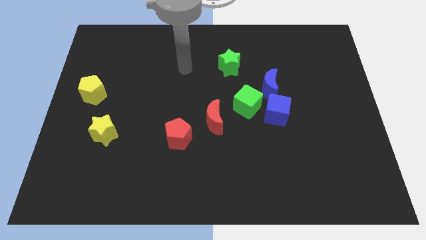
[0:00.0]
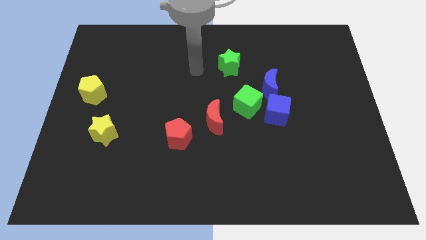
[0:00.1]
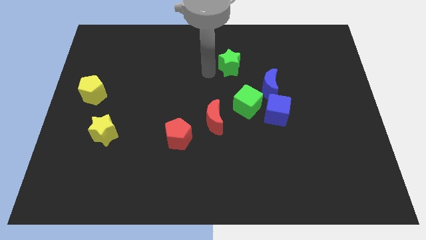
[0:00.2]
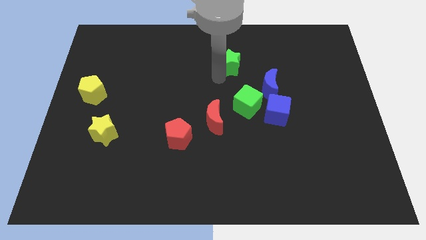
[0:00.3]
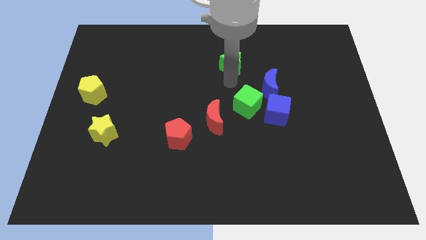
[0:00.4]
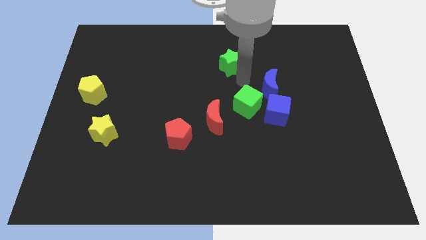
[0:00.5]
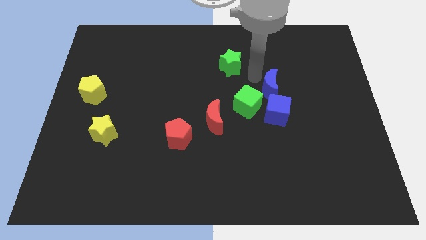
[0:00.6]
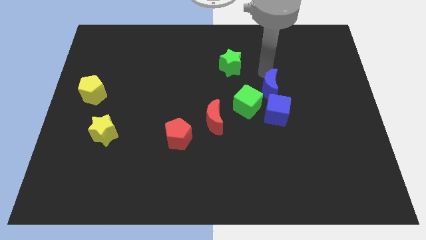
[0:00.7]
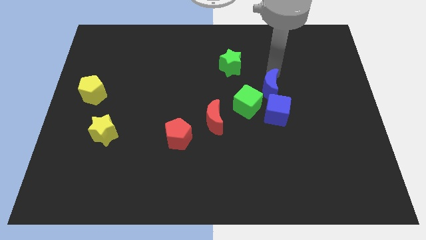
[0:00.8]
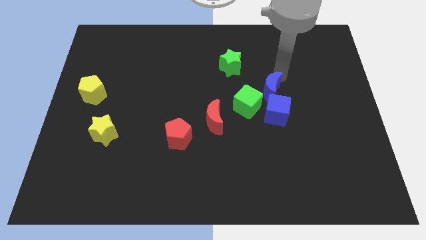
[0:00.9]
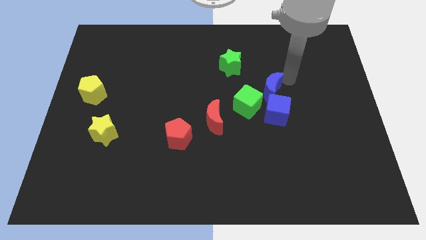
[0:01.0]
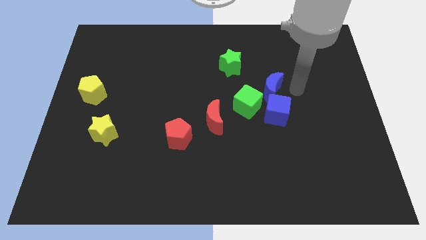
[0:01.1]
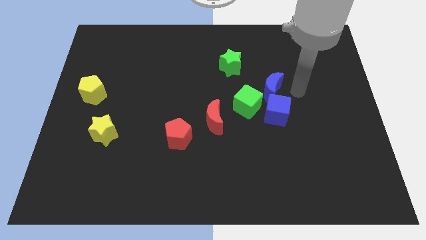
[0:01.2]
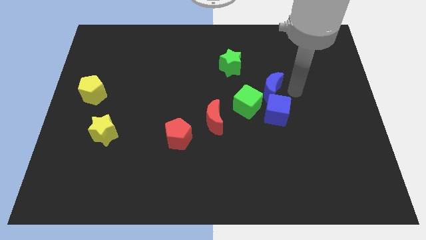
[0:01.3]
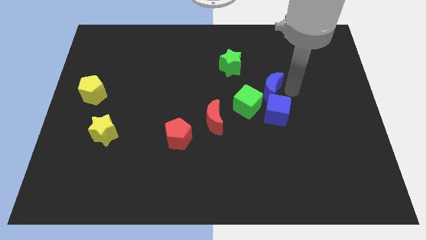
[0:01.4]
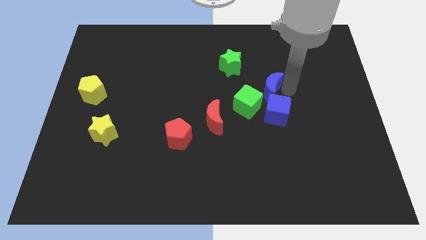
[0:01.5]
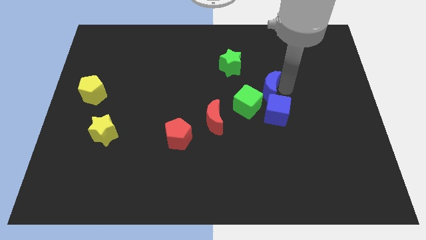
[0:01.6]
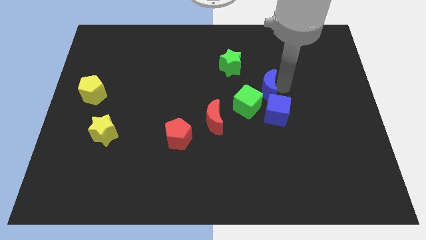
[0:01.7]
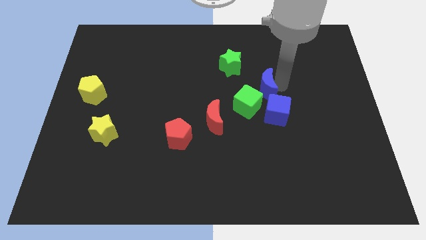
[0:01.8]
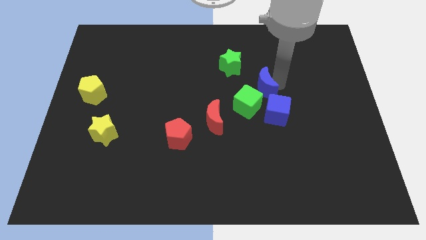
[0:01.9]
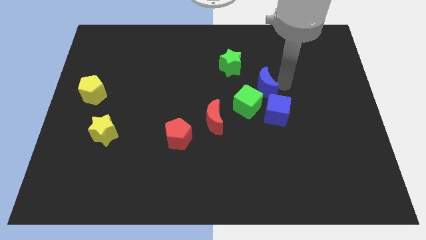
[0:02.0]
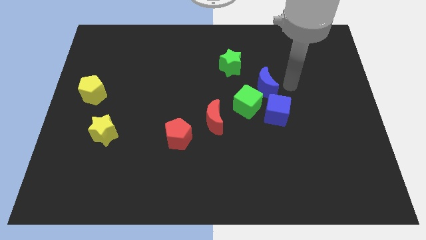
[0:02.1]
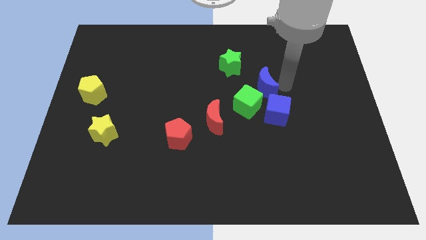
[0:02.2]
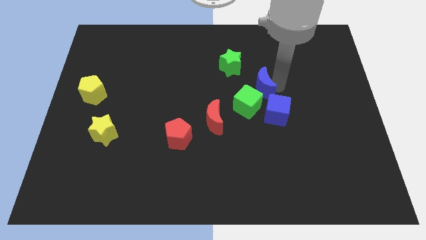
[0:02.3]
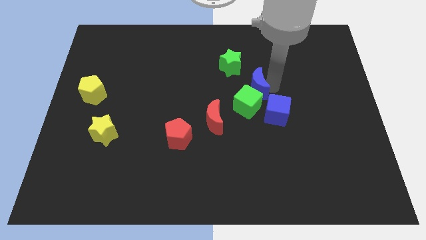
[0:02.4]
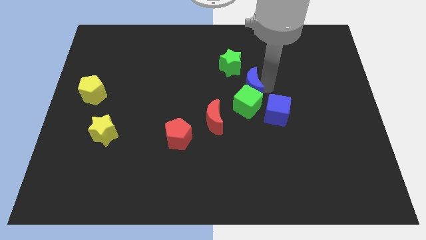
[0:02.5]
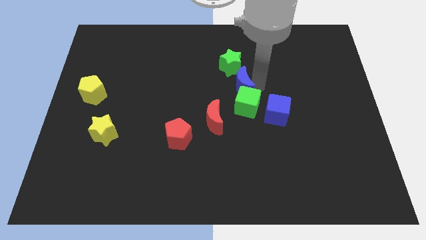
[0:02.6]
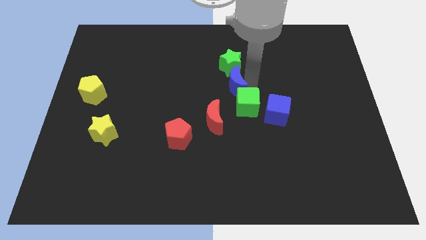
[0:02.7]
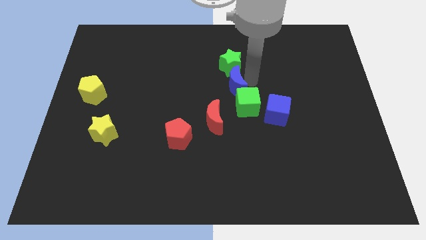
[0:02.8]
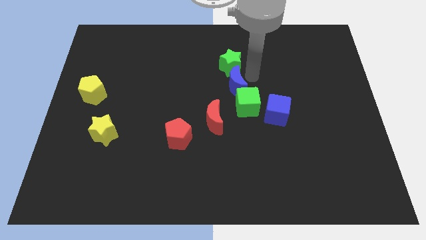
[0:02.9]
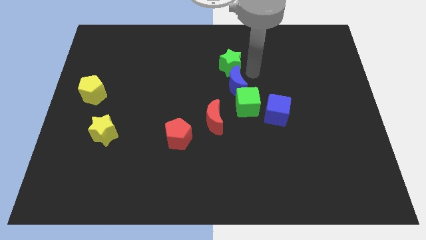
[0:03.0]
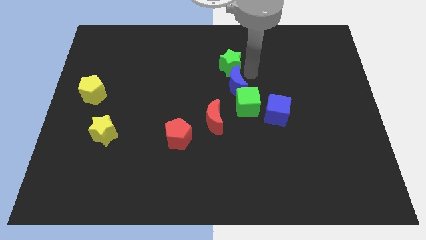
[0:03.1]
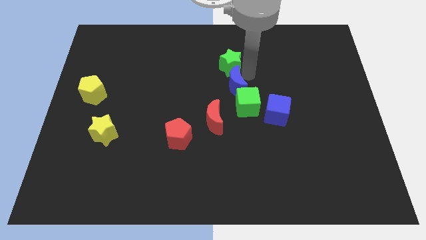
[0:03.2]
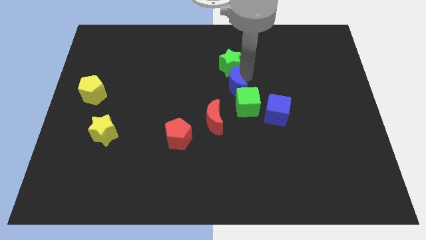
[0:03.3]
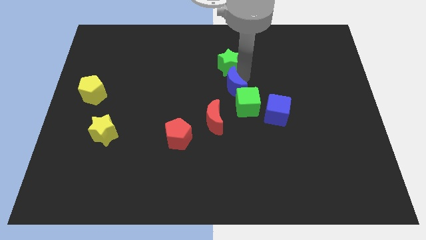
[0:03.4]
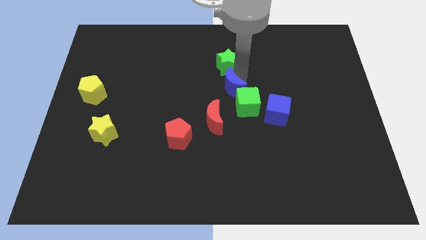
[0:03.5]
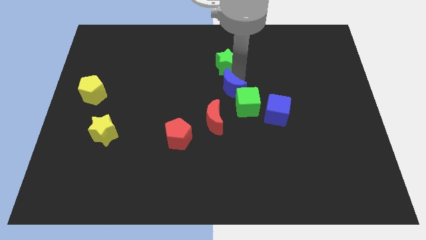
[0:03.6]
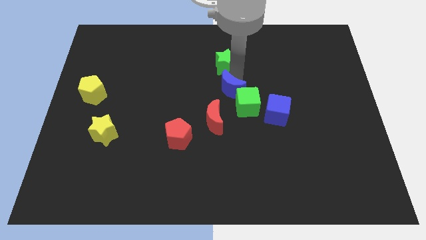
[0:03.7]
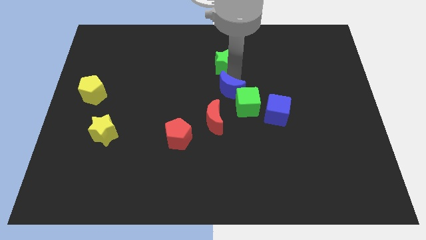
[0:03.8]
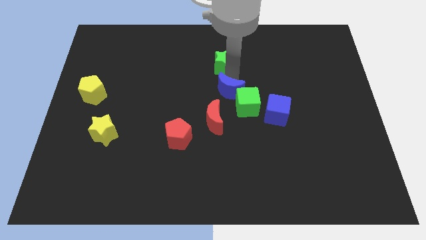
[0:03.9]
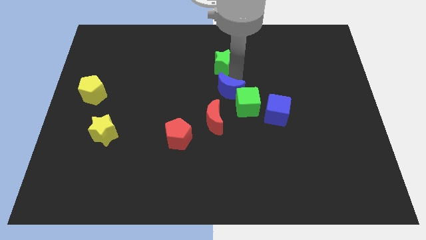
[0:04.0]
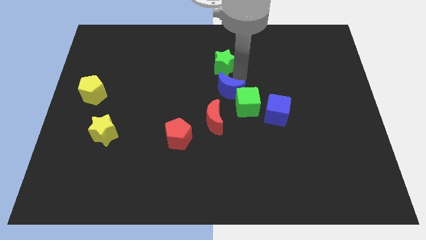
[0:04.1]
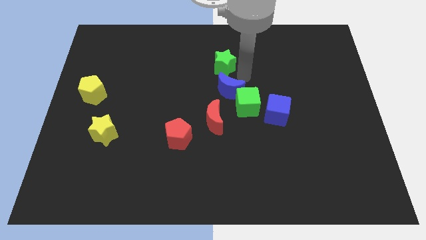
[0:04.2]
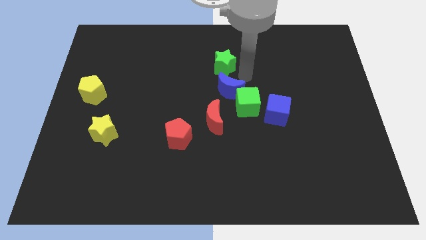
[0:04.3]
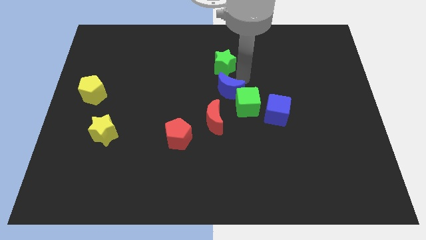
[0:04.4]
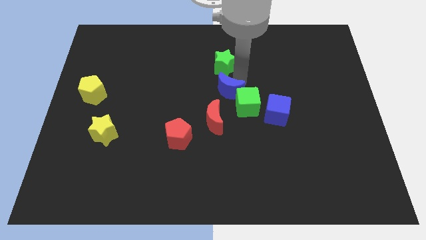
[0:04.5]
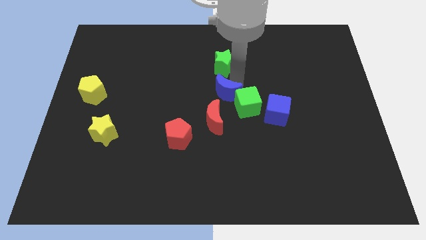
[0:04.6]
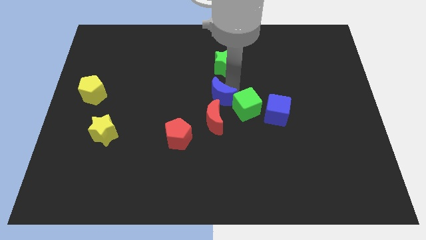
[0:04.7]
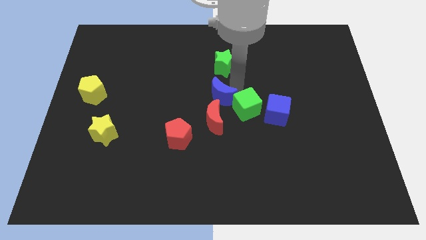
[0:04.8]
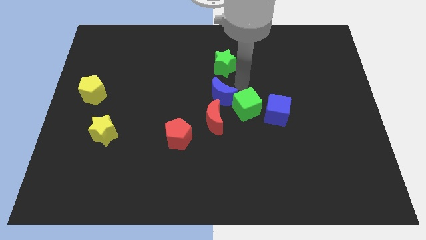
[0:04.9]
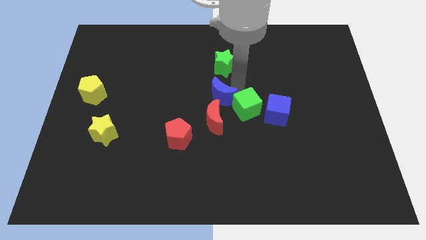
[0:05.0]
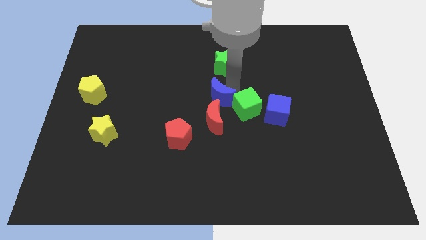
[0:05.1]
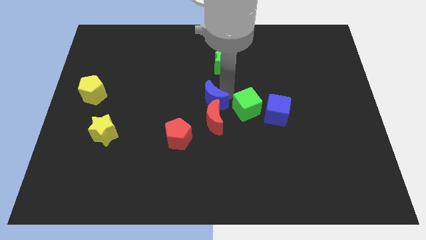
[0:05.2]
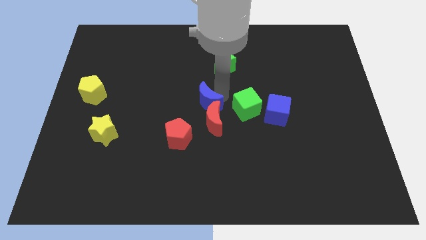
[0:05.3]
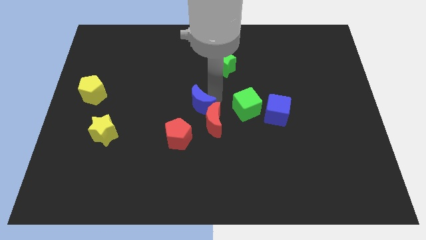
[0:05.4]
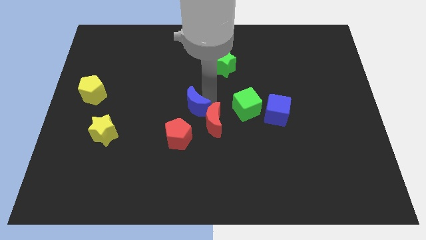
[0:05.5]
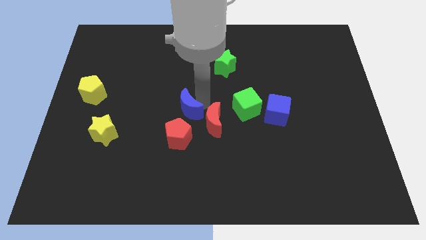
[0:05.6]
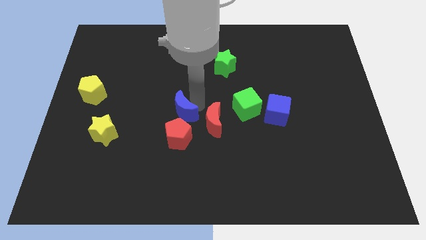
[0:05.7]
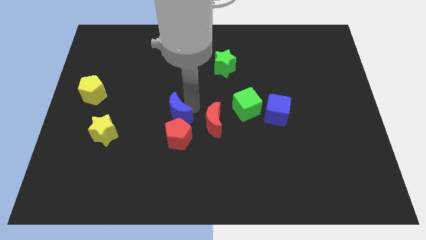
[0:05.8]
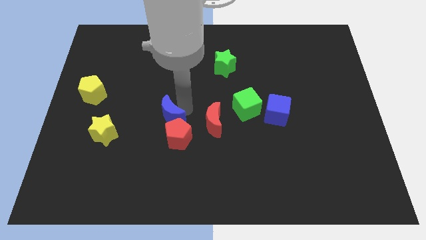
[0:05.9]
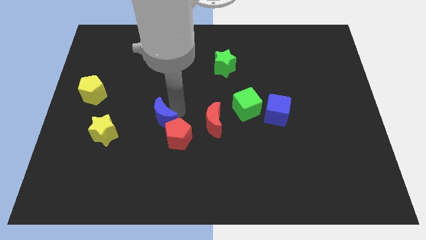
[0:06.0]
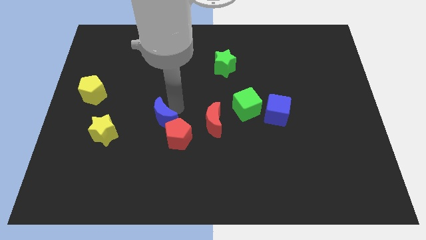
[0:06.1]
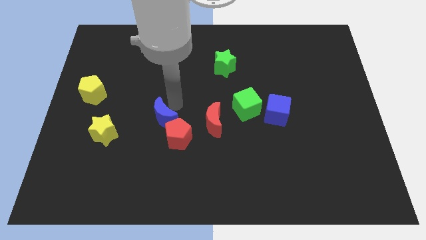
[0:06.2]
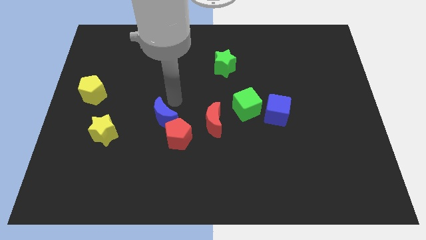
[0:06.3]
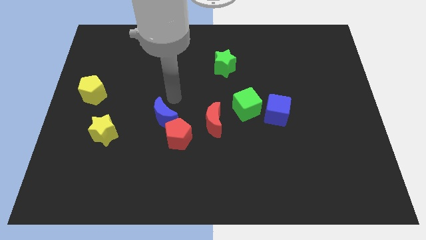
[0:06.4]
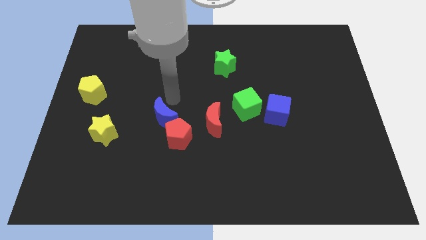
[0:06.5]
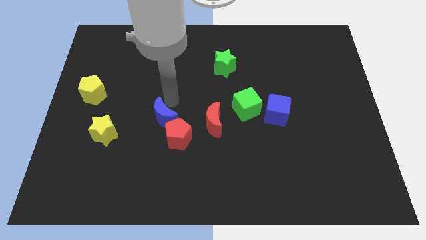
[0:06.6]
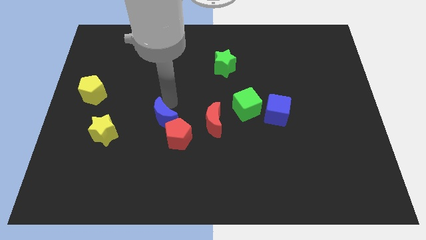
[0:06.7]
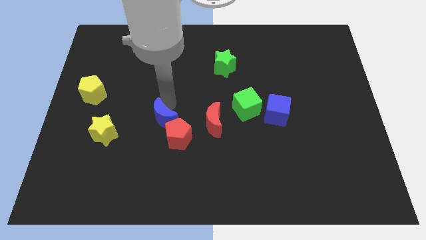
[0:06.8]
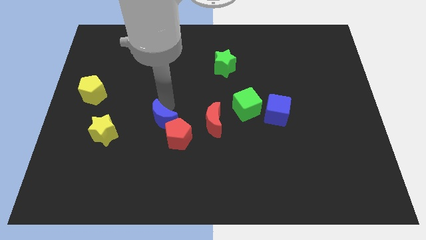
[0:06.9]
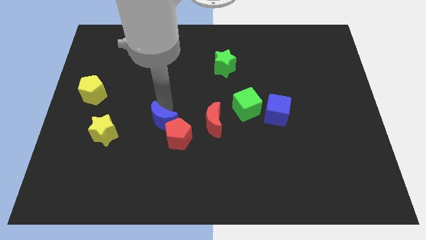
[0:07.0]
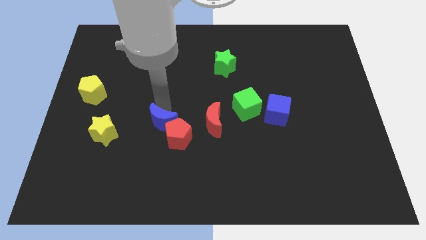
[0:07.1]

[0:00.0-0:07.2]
push the blue moon down and left diagonally

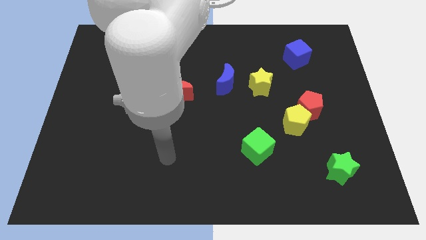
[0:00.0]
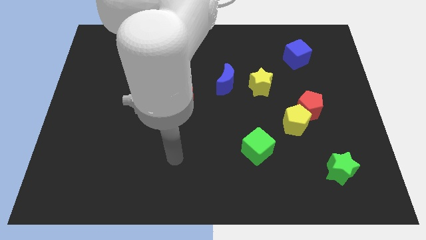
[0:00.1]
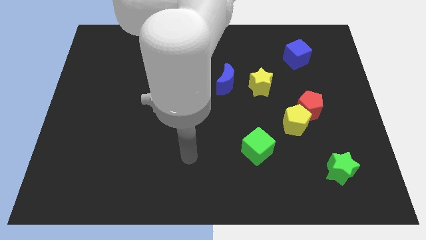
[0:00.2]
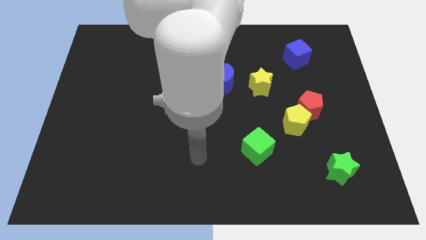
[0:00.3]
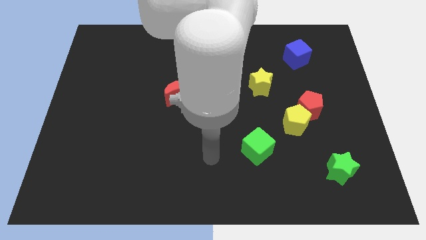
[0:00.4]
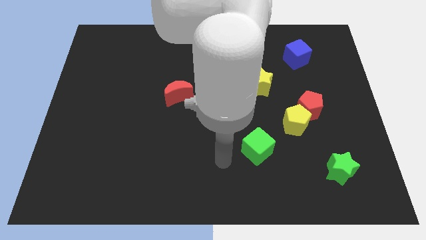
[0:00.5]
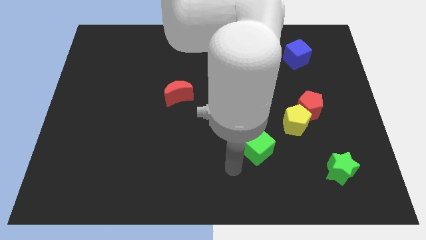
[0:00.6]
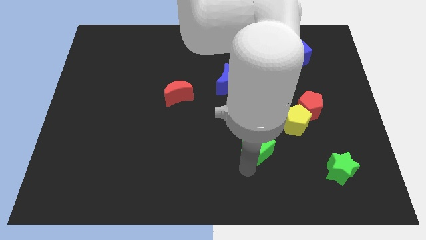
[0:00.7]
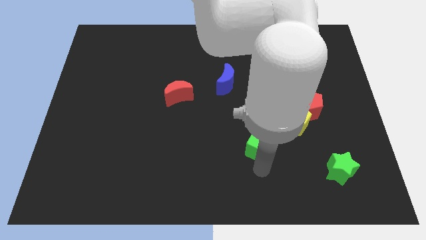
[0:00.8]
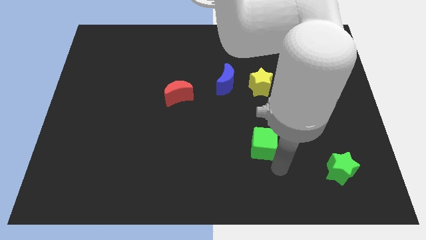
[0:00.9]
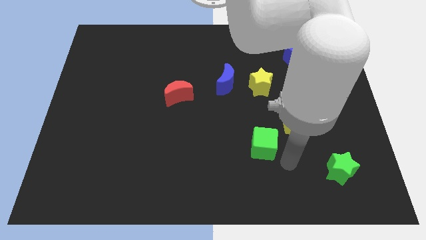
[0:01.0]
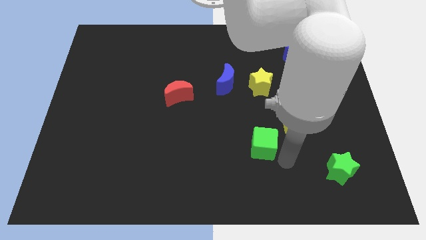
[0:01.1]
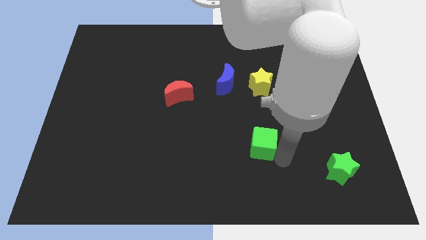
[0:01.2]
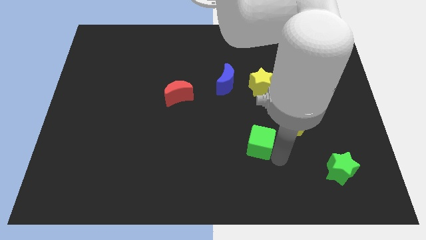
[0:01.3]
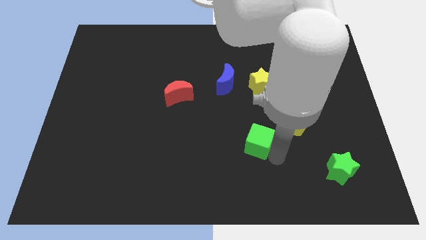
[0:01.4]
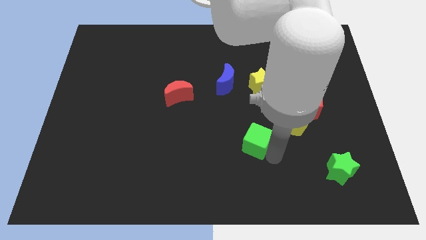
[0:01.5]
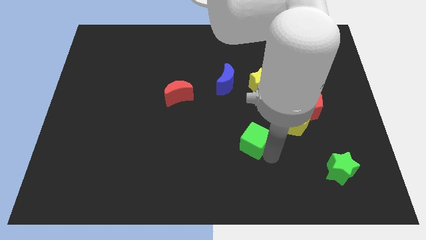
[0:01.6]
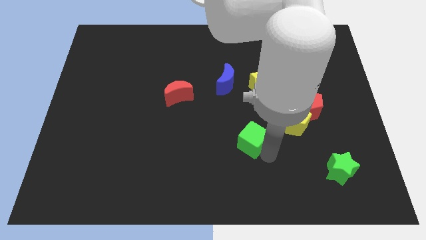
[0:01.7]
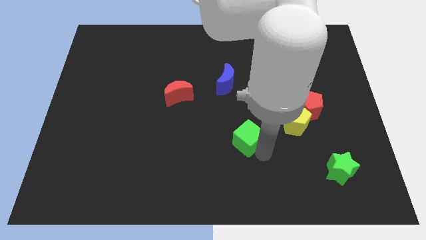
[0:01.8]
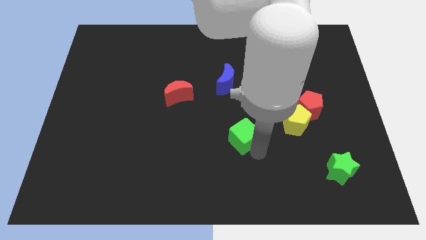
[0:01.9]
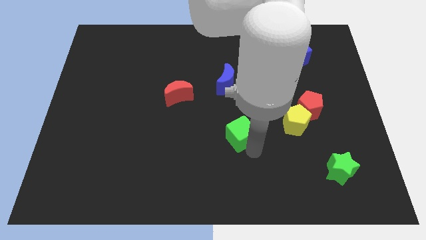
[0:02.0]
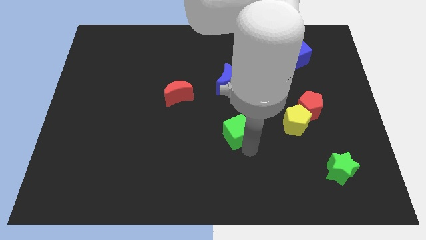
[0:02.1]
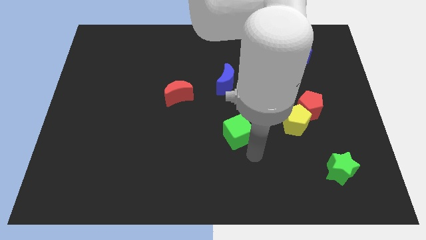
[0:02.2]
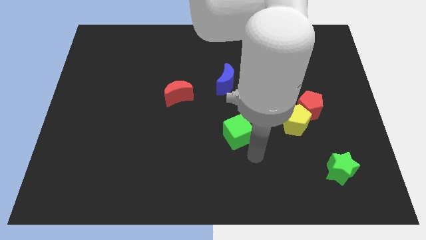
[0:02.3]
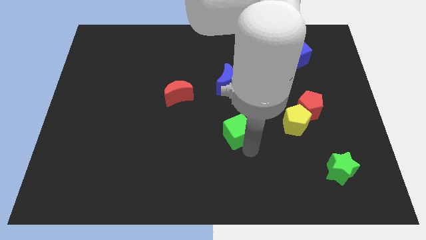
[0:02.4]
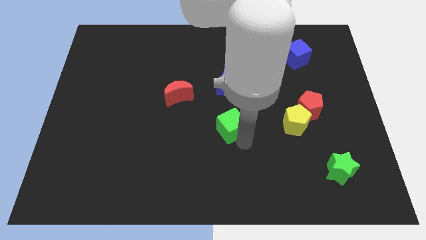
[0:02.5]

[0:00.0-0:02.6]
push the green cube a bit upwards and then left
